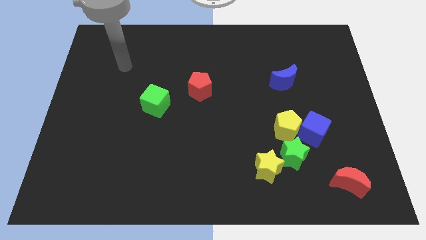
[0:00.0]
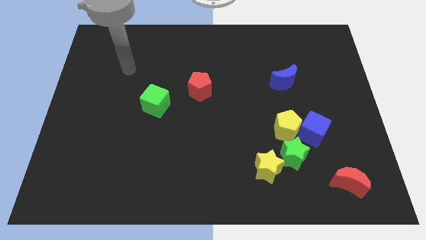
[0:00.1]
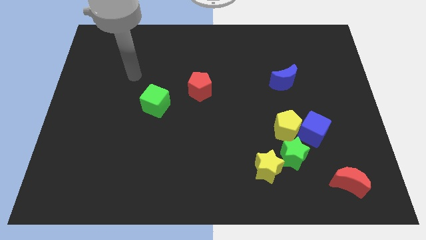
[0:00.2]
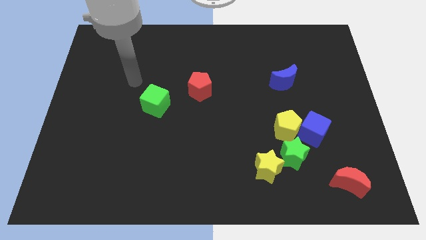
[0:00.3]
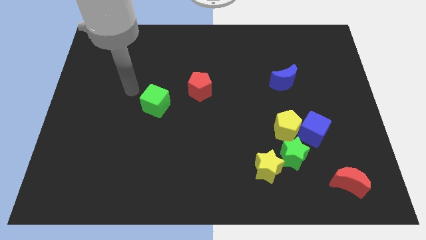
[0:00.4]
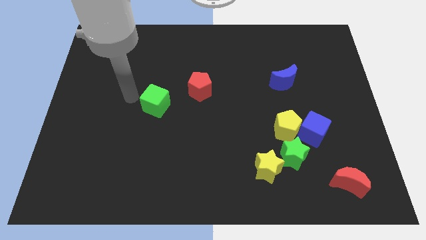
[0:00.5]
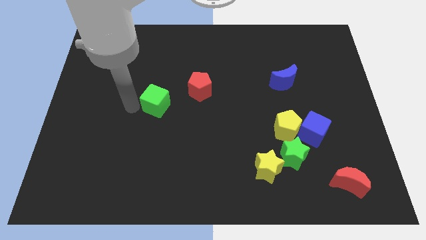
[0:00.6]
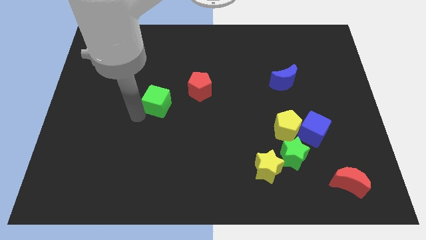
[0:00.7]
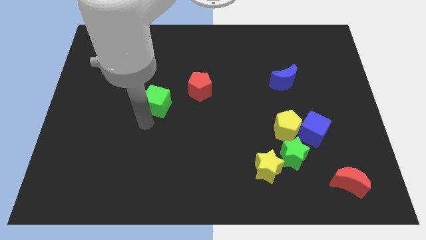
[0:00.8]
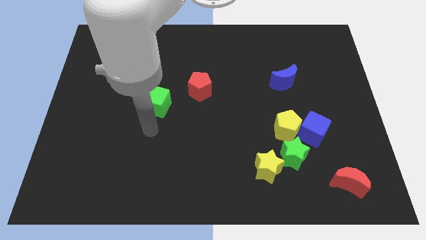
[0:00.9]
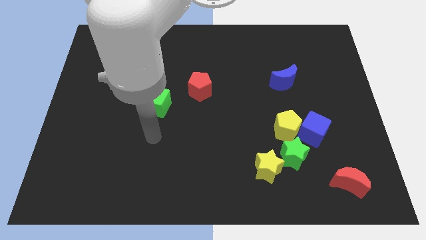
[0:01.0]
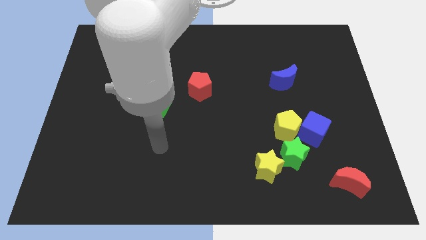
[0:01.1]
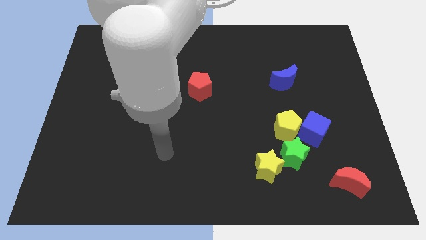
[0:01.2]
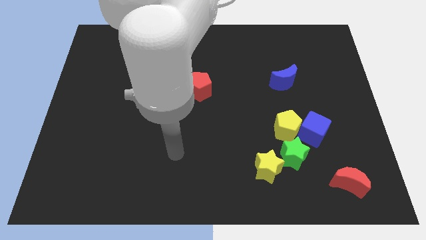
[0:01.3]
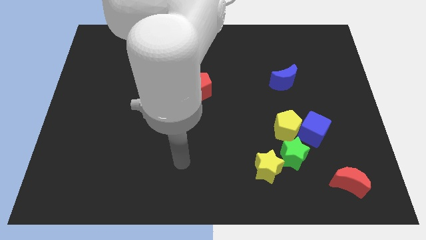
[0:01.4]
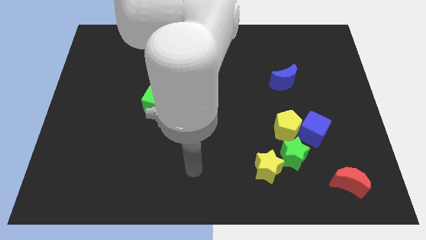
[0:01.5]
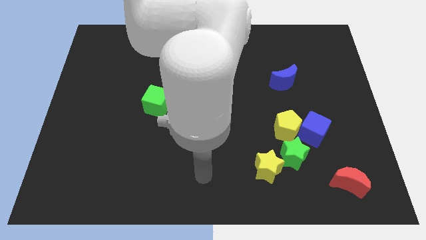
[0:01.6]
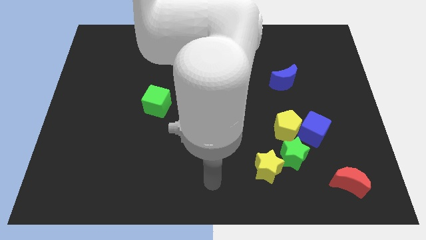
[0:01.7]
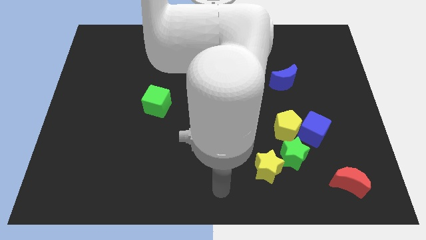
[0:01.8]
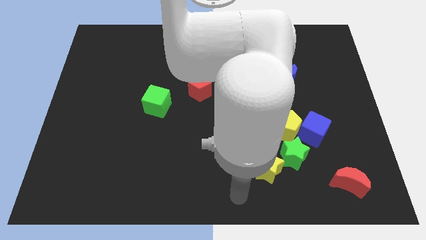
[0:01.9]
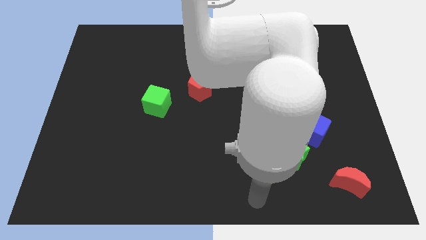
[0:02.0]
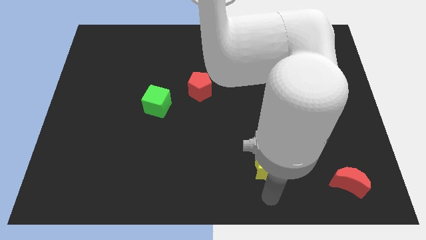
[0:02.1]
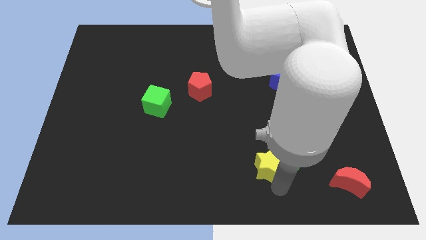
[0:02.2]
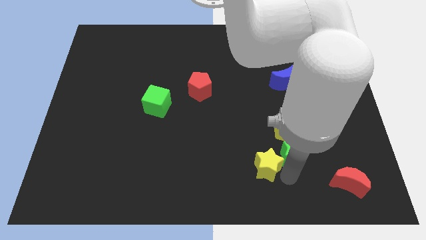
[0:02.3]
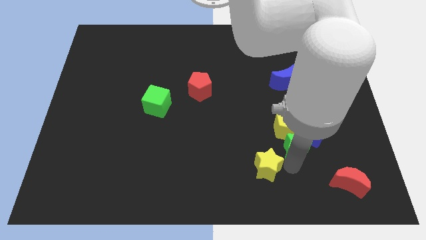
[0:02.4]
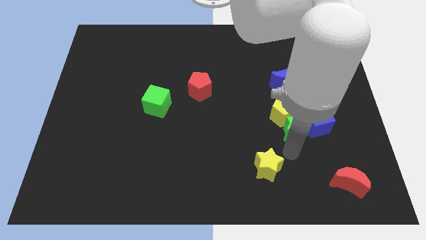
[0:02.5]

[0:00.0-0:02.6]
move the yellow star away from the green star

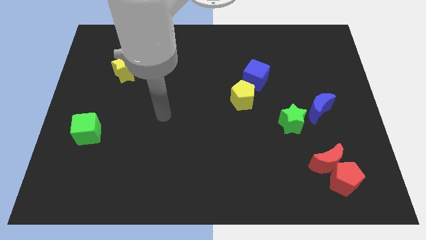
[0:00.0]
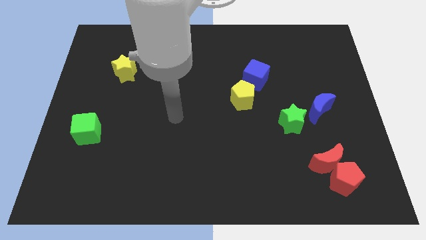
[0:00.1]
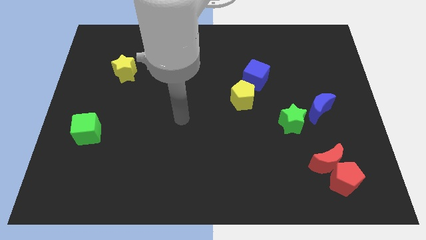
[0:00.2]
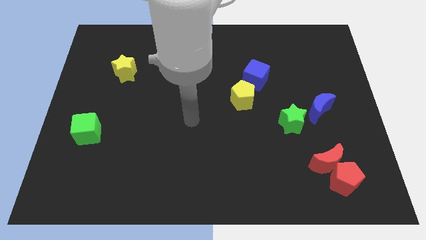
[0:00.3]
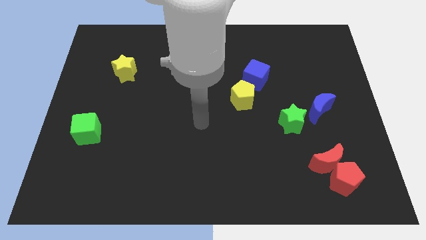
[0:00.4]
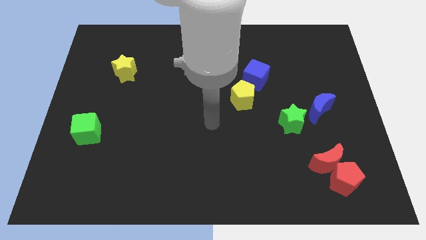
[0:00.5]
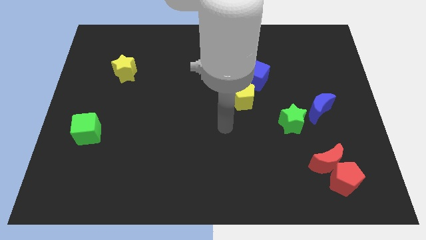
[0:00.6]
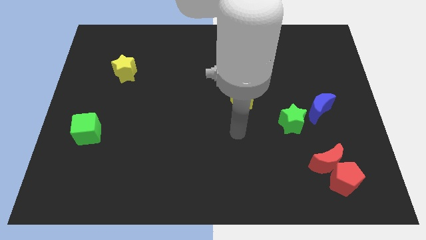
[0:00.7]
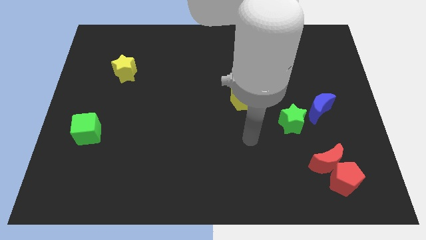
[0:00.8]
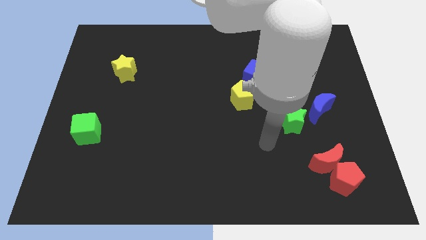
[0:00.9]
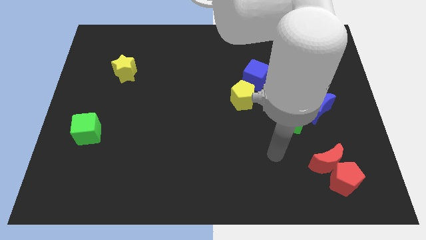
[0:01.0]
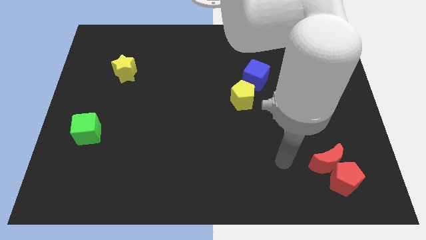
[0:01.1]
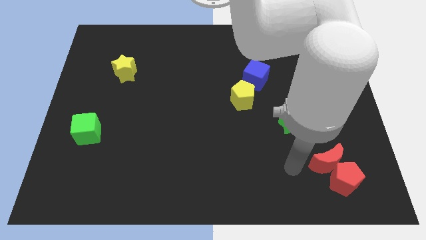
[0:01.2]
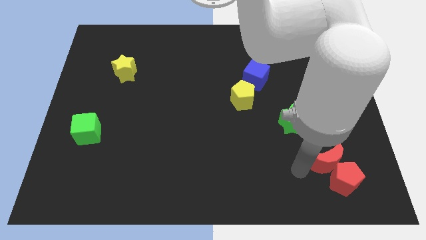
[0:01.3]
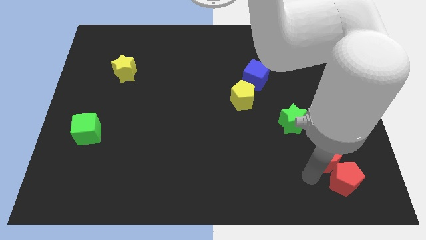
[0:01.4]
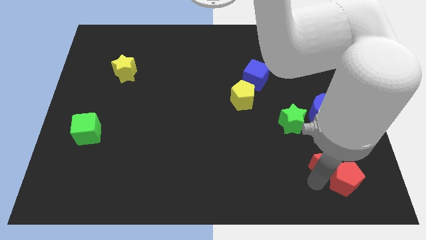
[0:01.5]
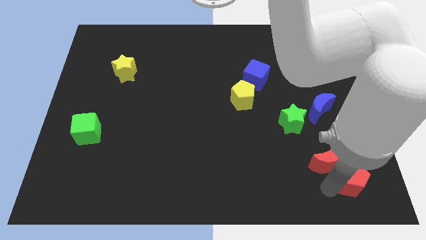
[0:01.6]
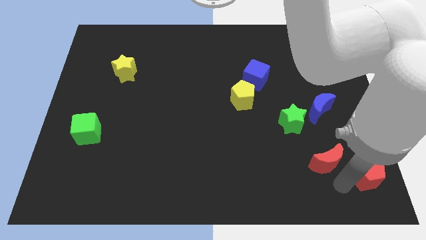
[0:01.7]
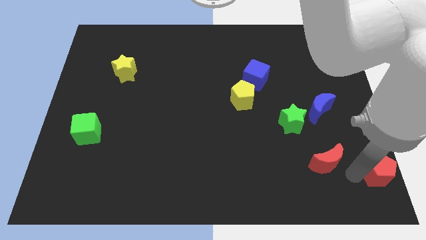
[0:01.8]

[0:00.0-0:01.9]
pull the red moon apart from the red pentagon

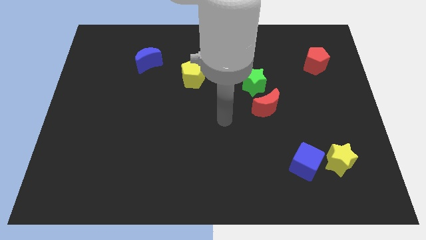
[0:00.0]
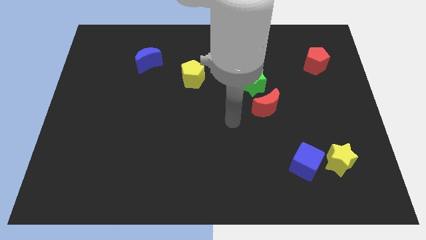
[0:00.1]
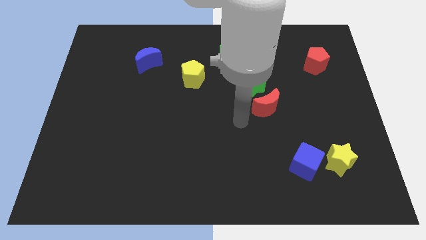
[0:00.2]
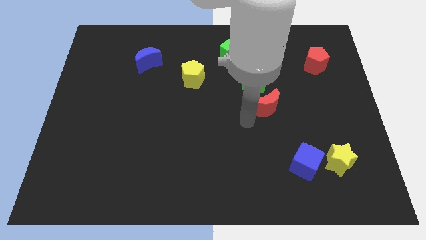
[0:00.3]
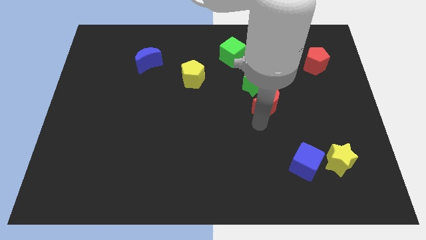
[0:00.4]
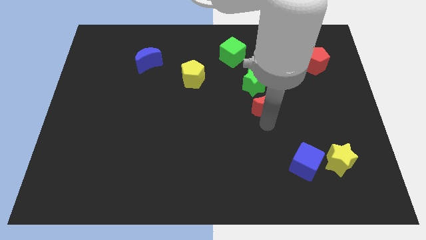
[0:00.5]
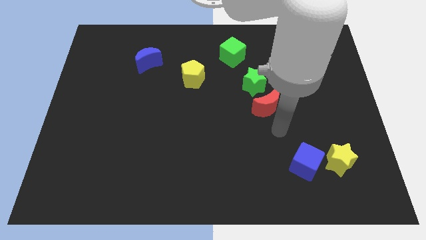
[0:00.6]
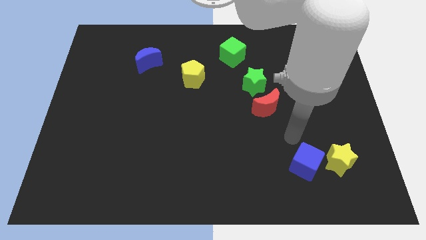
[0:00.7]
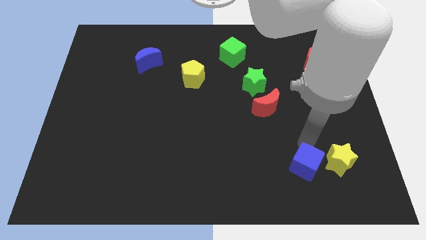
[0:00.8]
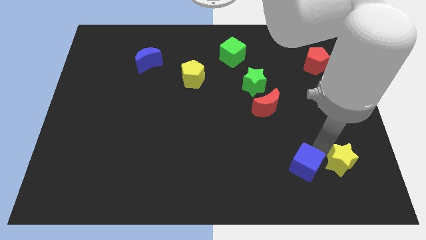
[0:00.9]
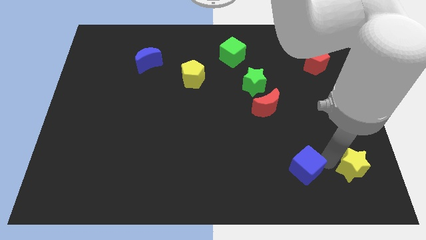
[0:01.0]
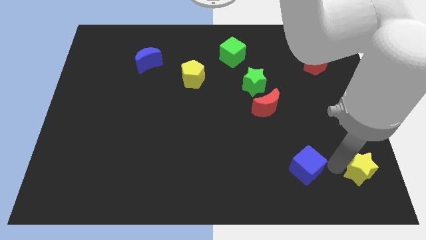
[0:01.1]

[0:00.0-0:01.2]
separate the blue cube from the yellow star

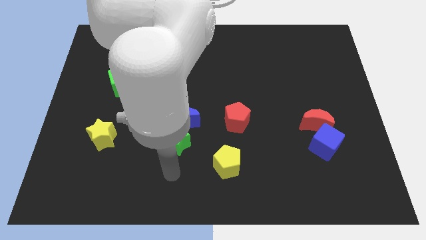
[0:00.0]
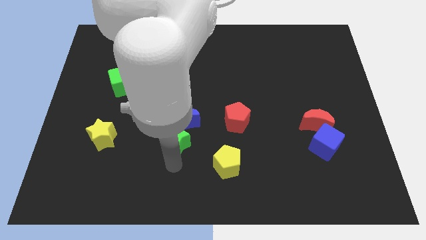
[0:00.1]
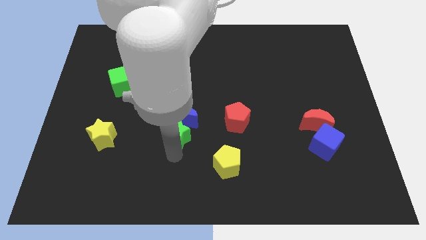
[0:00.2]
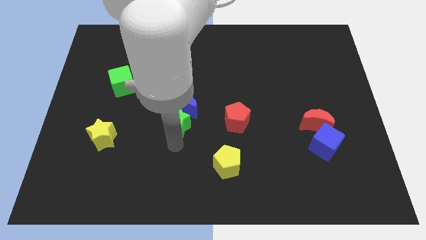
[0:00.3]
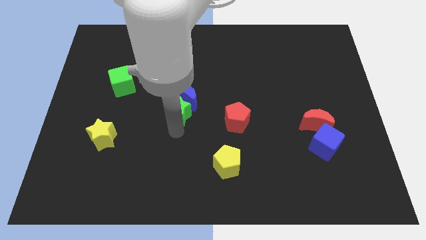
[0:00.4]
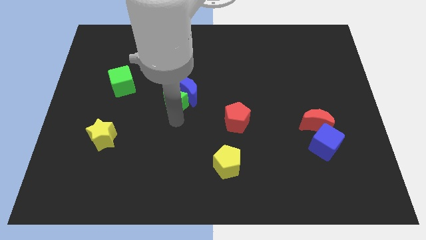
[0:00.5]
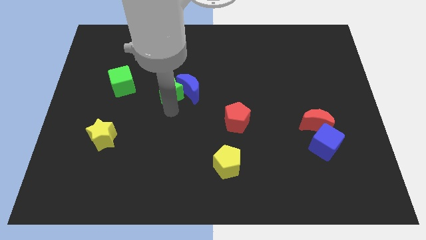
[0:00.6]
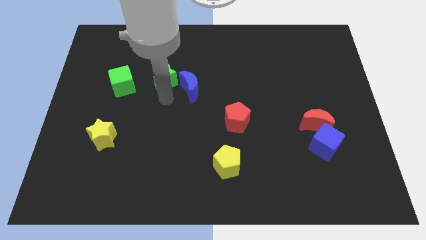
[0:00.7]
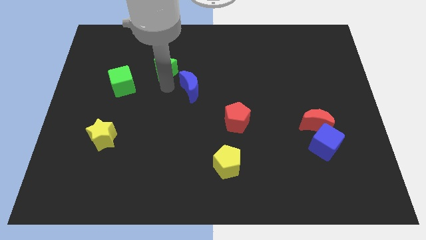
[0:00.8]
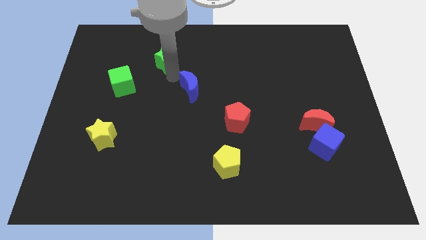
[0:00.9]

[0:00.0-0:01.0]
move the blue moon away from the green star

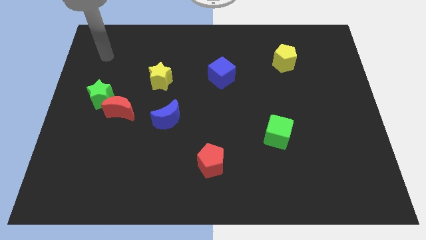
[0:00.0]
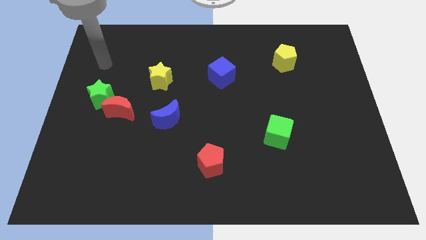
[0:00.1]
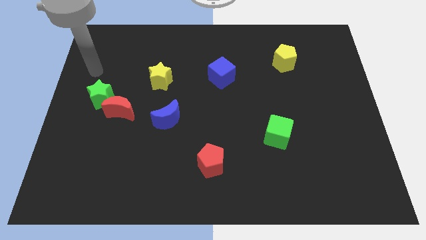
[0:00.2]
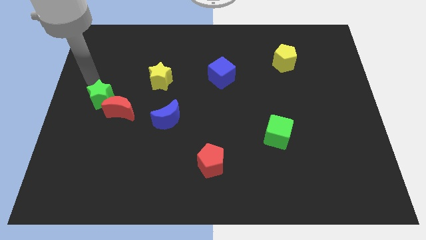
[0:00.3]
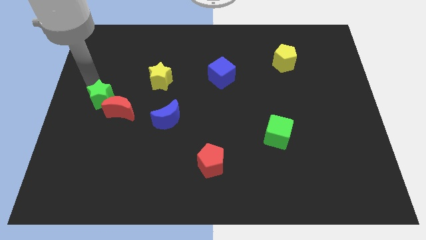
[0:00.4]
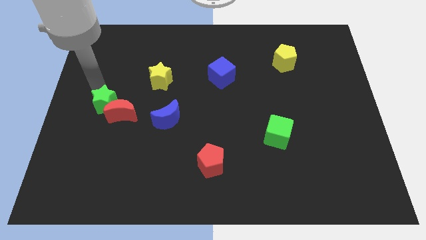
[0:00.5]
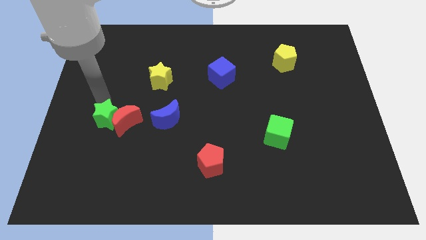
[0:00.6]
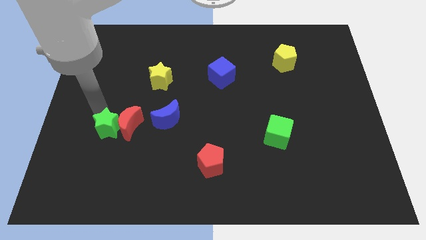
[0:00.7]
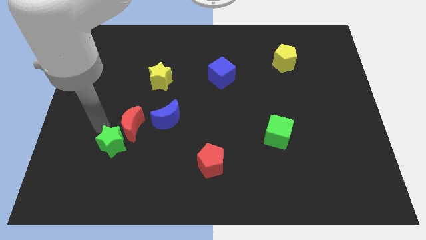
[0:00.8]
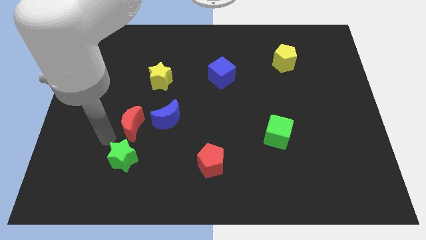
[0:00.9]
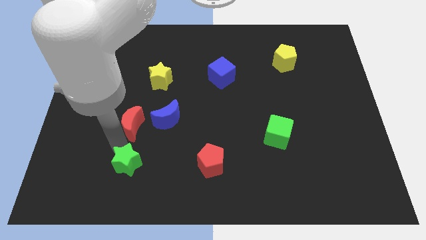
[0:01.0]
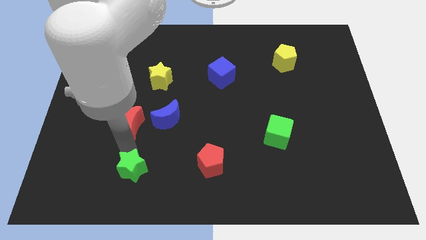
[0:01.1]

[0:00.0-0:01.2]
separate the red moon from the green star

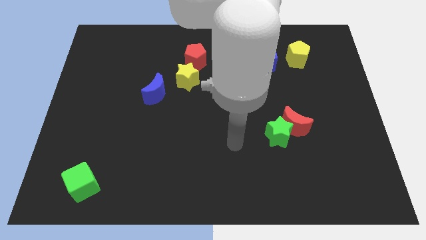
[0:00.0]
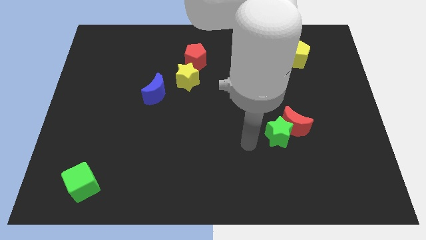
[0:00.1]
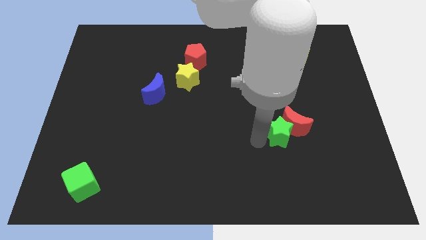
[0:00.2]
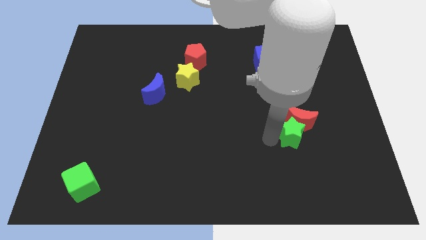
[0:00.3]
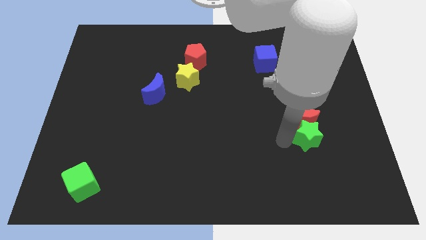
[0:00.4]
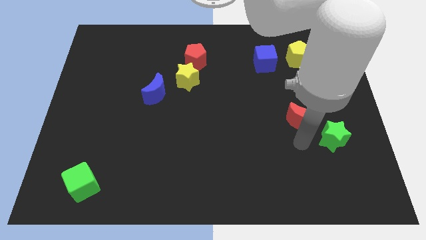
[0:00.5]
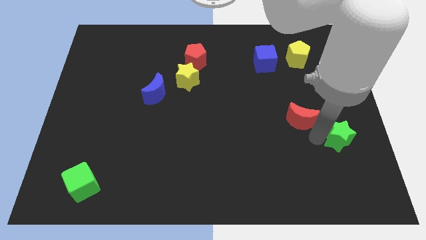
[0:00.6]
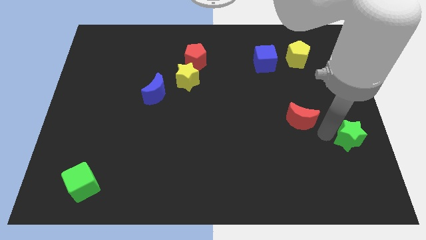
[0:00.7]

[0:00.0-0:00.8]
pull the red moon apart from the green star

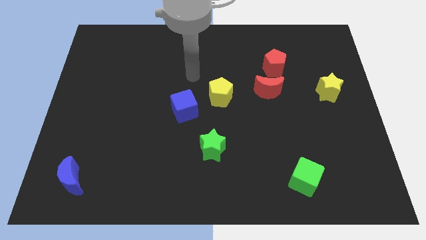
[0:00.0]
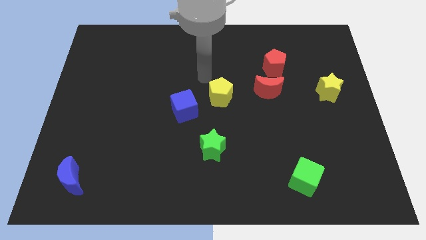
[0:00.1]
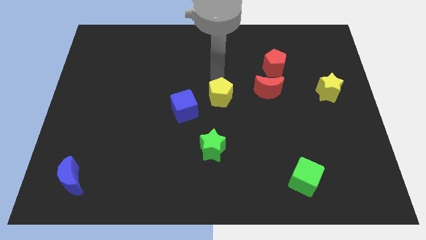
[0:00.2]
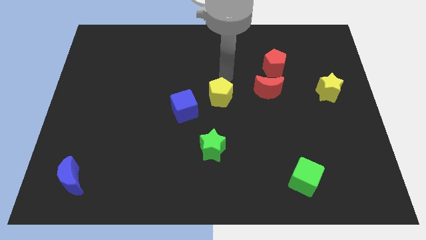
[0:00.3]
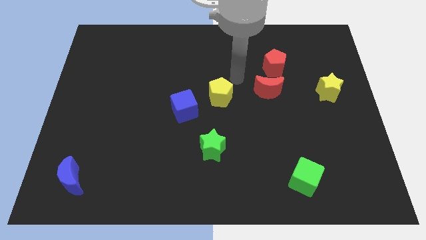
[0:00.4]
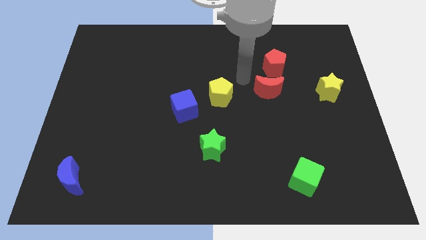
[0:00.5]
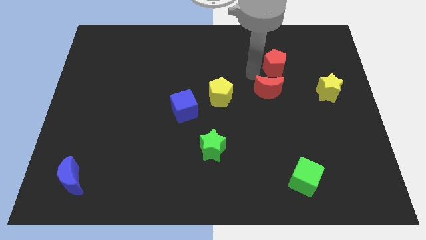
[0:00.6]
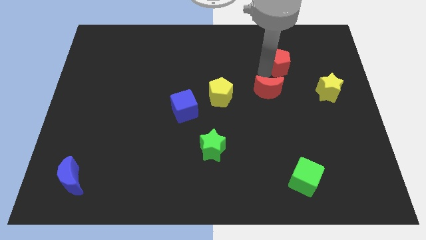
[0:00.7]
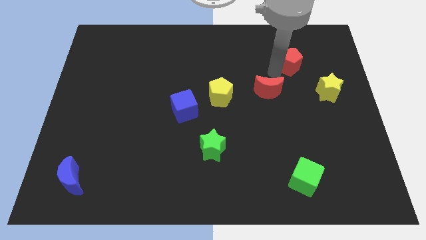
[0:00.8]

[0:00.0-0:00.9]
separate the red moon from the red pentagon
